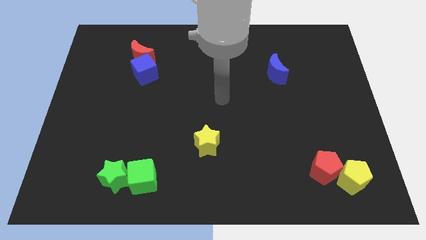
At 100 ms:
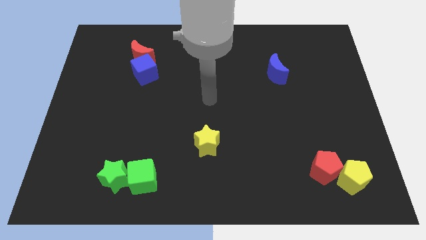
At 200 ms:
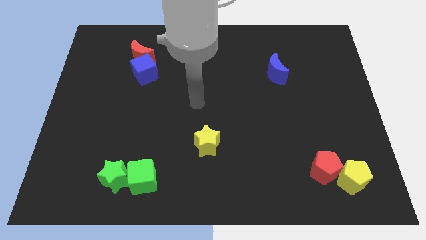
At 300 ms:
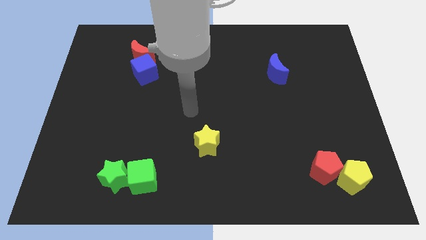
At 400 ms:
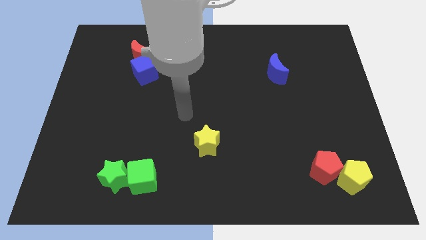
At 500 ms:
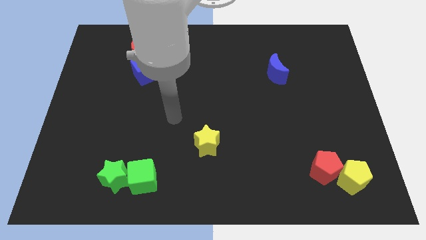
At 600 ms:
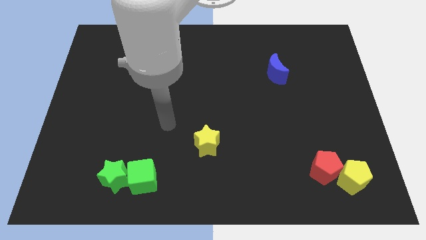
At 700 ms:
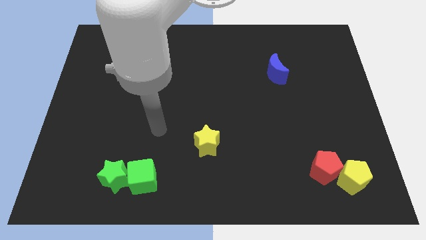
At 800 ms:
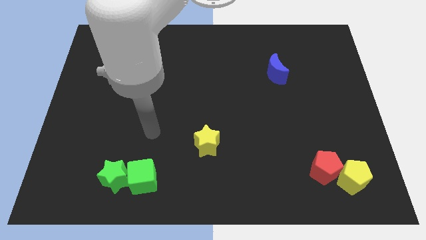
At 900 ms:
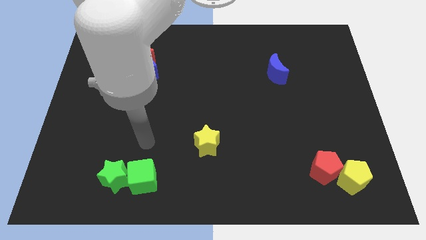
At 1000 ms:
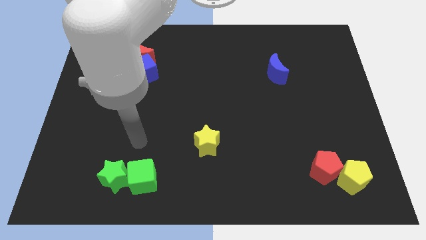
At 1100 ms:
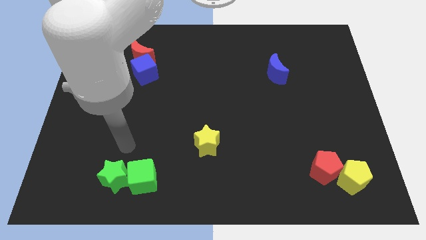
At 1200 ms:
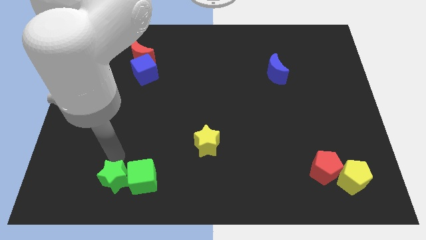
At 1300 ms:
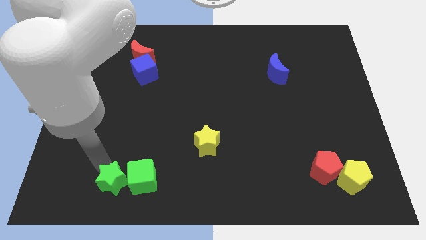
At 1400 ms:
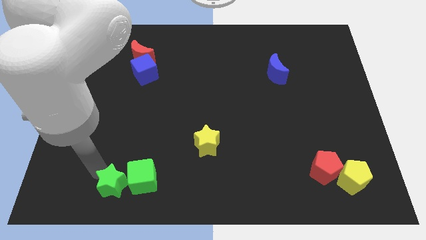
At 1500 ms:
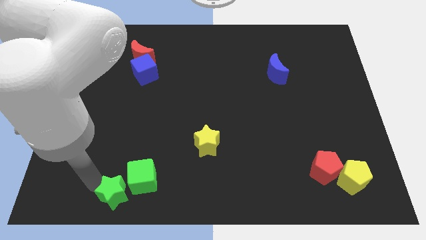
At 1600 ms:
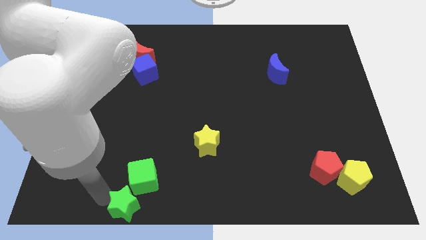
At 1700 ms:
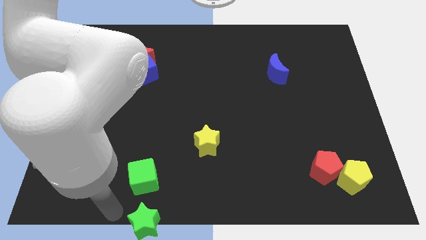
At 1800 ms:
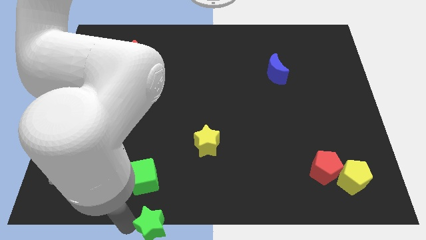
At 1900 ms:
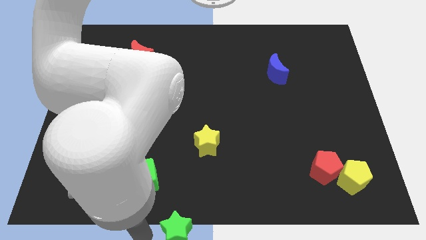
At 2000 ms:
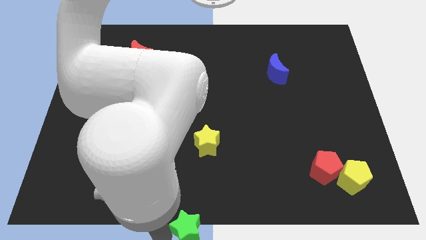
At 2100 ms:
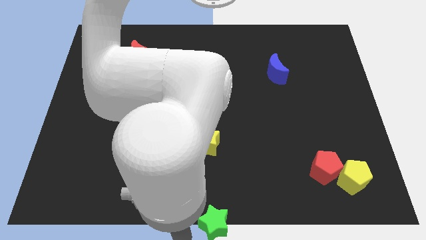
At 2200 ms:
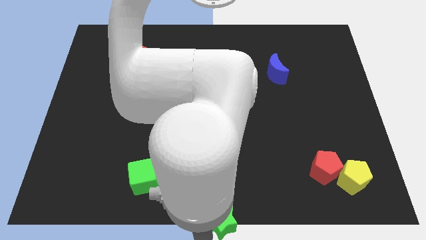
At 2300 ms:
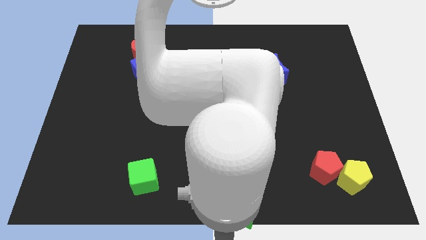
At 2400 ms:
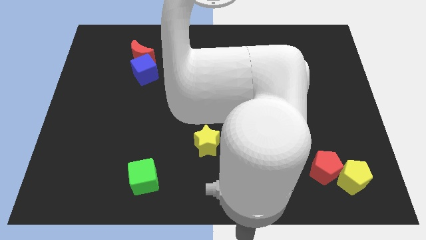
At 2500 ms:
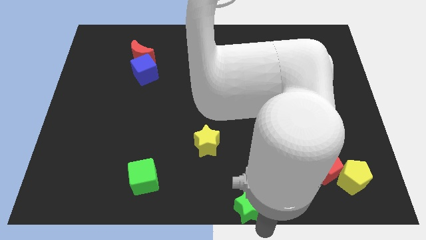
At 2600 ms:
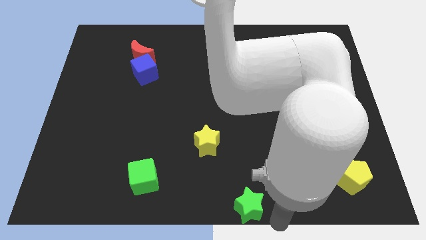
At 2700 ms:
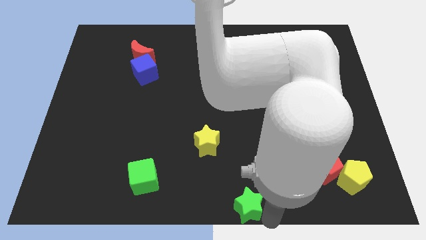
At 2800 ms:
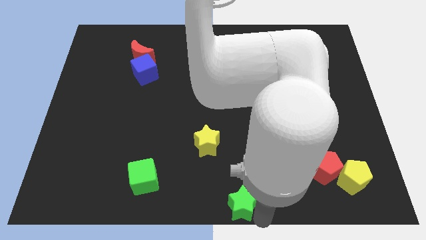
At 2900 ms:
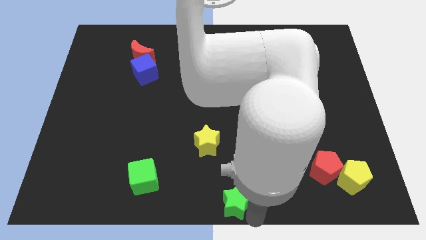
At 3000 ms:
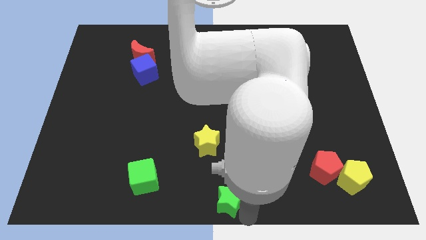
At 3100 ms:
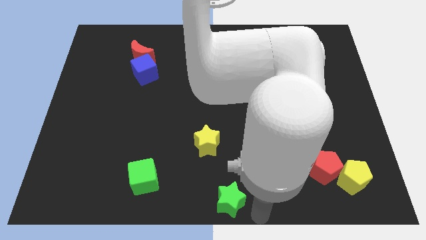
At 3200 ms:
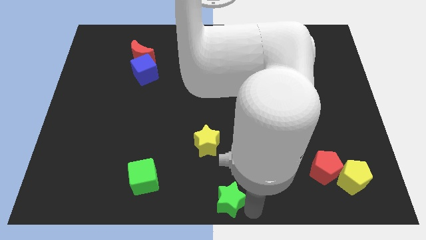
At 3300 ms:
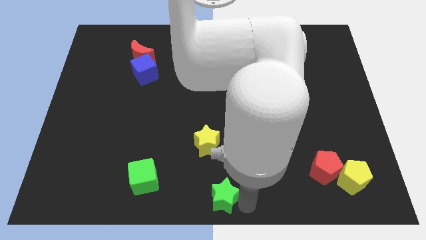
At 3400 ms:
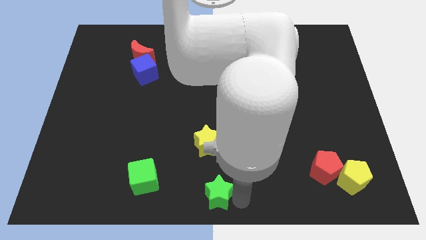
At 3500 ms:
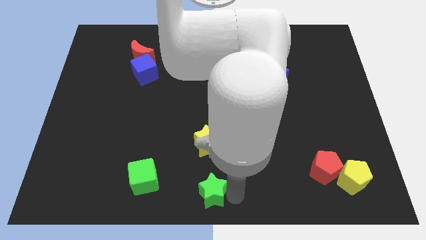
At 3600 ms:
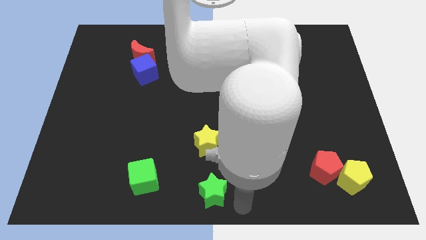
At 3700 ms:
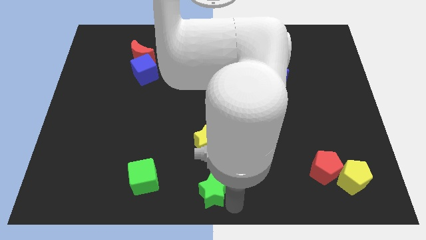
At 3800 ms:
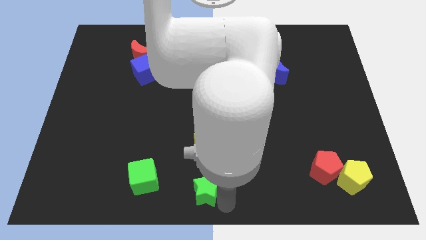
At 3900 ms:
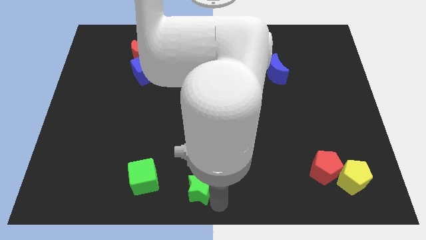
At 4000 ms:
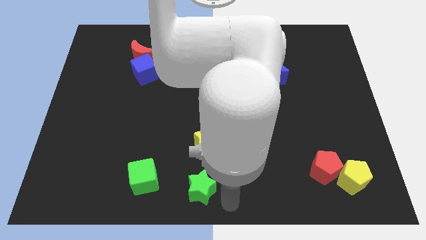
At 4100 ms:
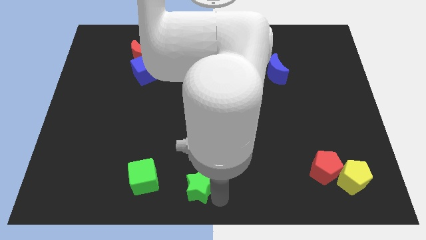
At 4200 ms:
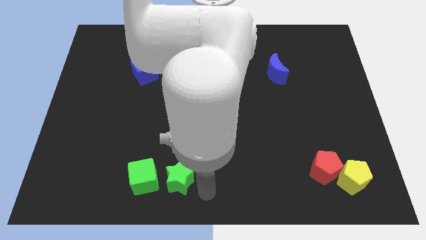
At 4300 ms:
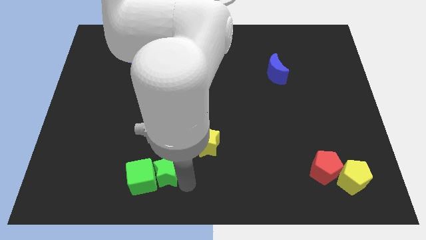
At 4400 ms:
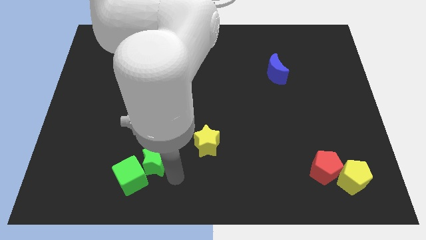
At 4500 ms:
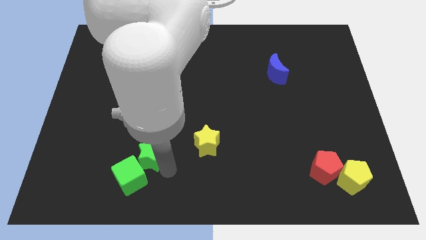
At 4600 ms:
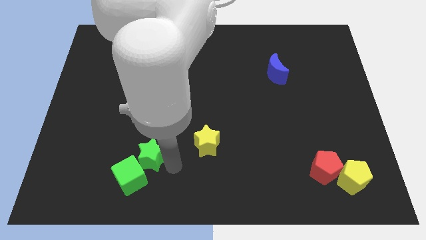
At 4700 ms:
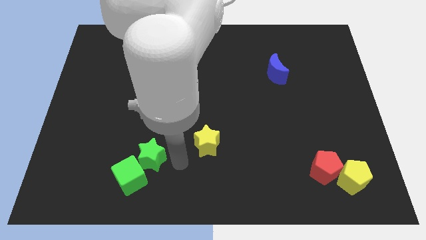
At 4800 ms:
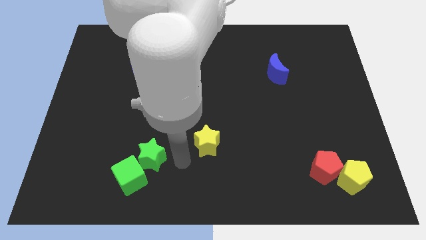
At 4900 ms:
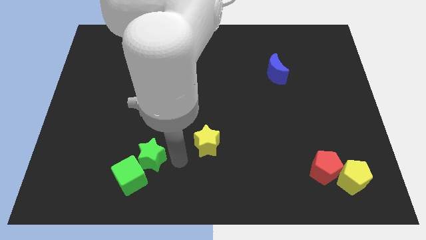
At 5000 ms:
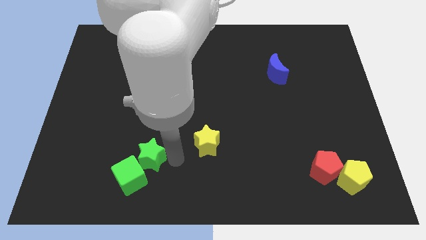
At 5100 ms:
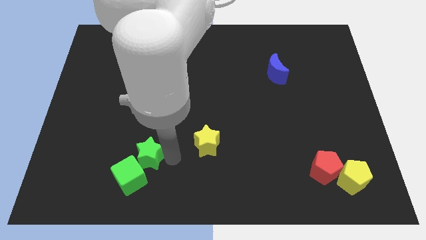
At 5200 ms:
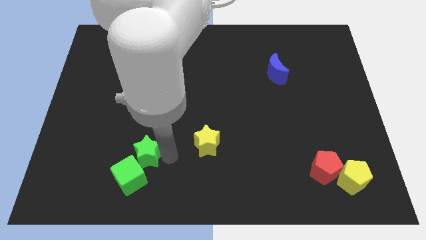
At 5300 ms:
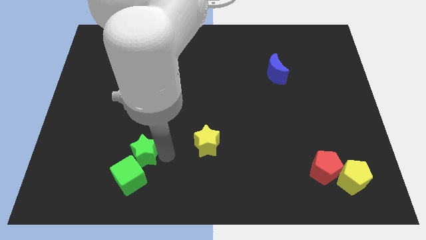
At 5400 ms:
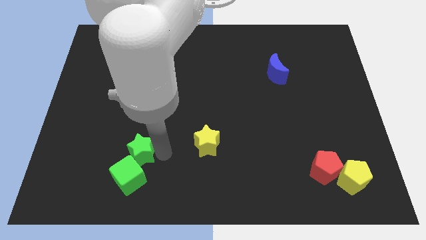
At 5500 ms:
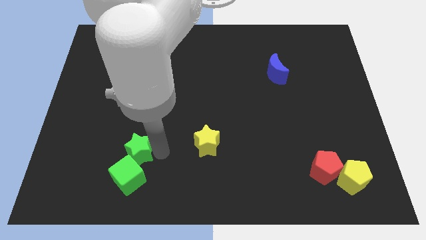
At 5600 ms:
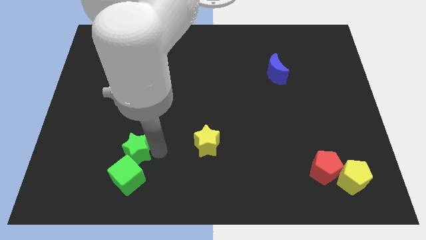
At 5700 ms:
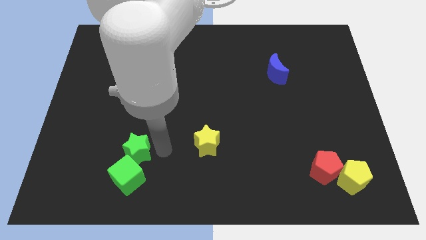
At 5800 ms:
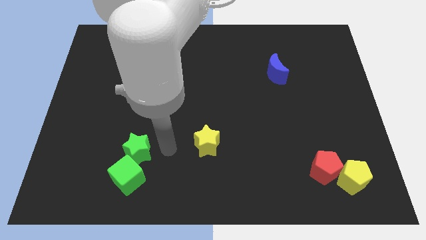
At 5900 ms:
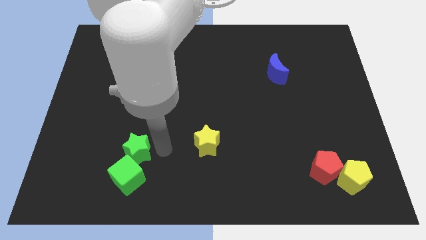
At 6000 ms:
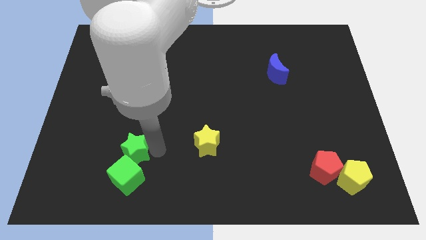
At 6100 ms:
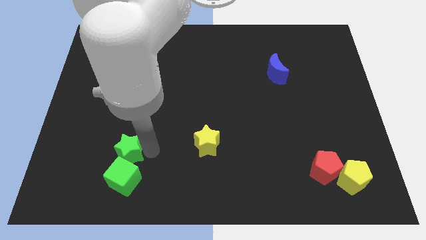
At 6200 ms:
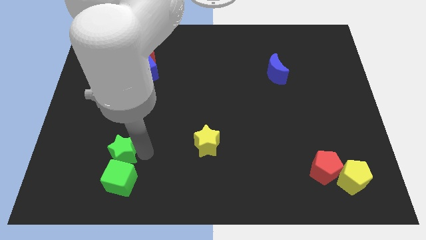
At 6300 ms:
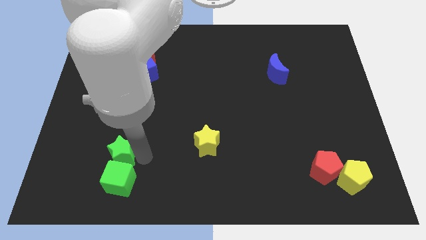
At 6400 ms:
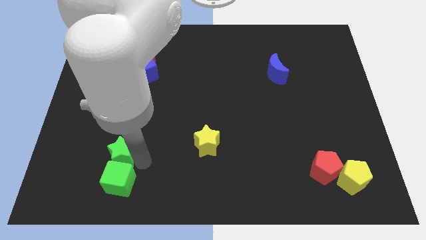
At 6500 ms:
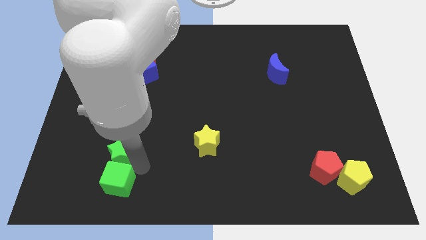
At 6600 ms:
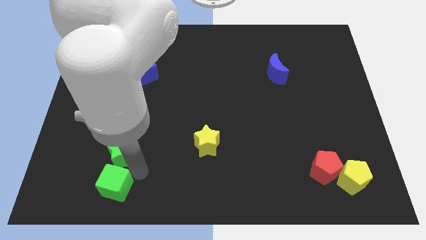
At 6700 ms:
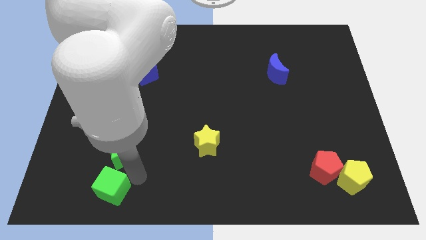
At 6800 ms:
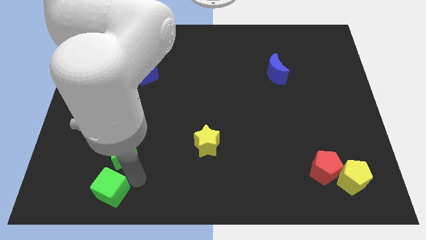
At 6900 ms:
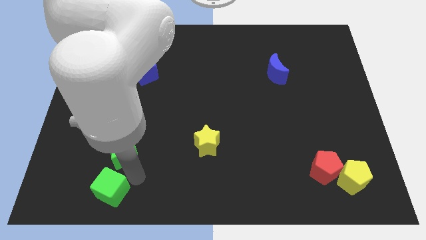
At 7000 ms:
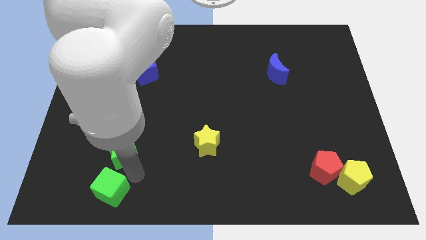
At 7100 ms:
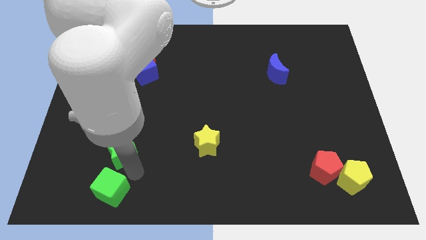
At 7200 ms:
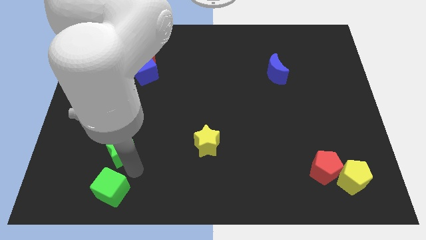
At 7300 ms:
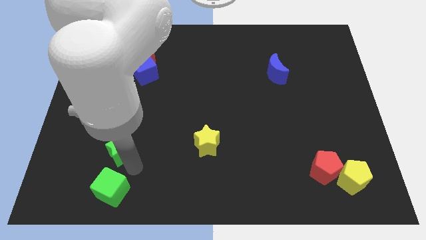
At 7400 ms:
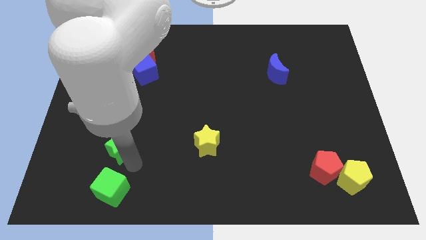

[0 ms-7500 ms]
move the green star a little bit upwards
